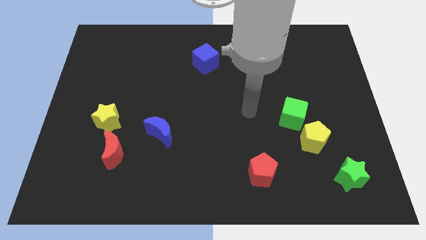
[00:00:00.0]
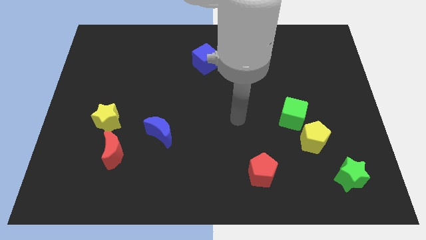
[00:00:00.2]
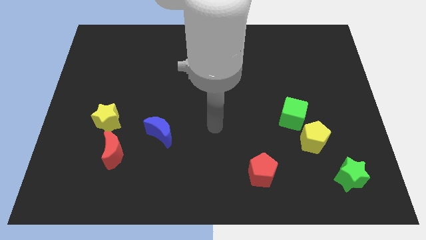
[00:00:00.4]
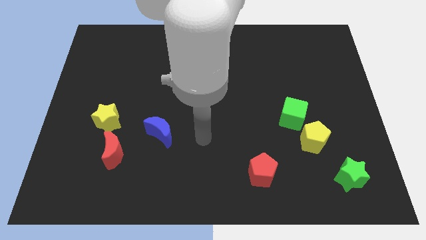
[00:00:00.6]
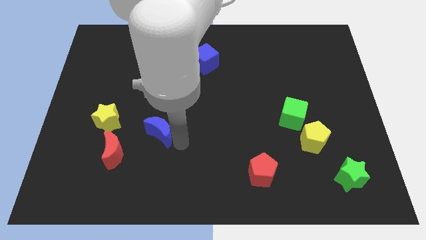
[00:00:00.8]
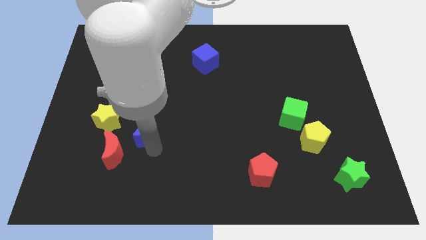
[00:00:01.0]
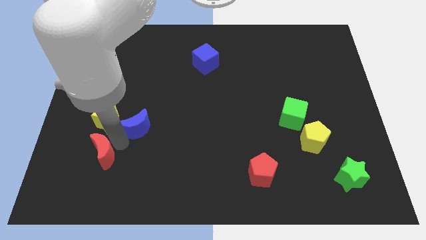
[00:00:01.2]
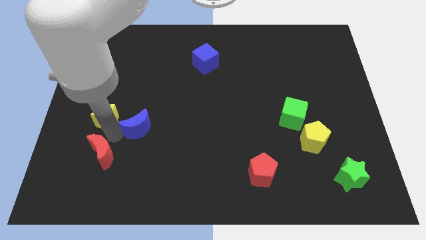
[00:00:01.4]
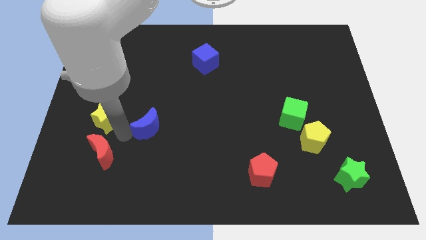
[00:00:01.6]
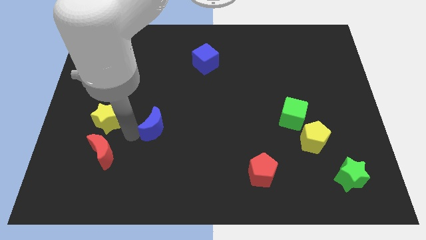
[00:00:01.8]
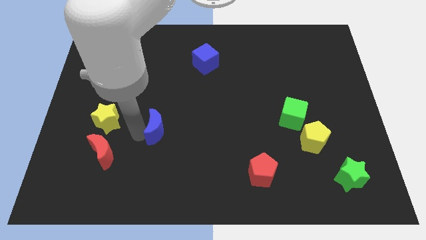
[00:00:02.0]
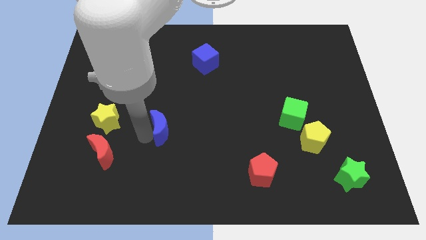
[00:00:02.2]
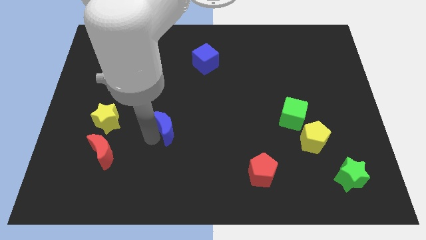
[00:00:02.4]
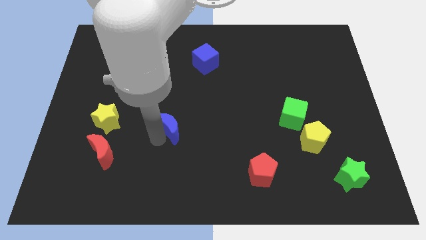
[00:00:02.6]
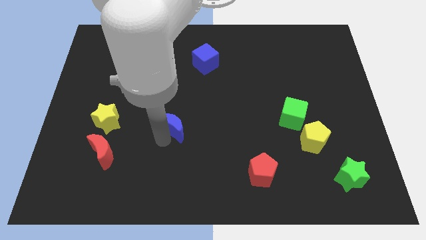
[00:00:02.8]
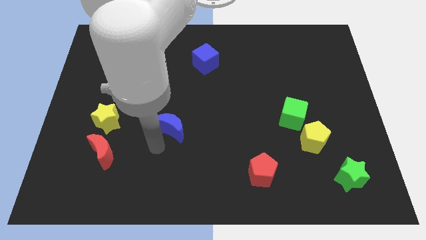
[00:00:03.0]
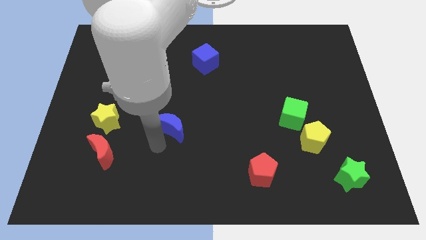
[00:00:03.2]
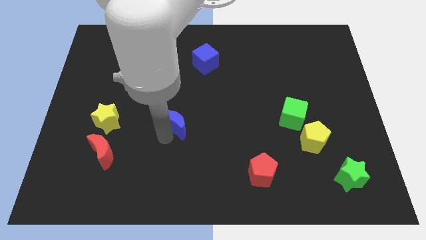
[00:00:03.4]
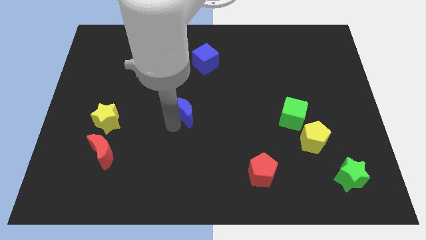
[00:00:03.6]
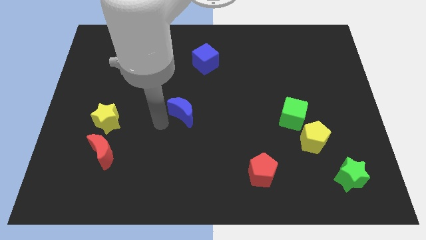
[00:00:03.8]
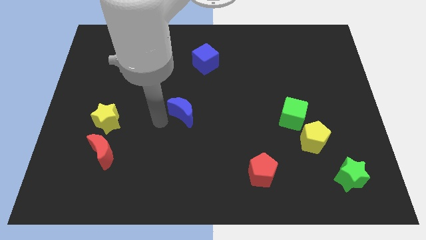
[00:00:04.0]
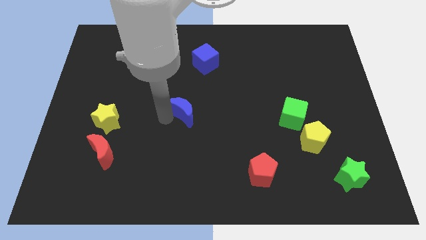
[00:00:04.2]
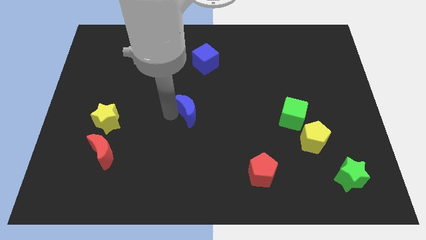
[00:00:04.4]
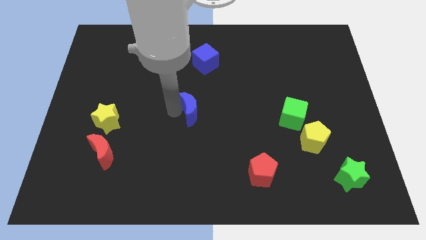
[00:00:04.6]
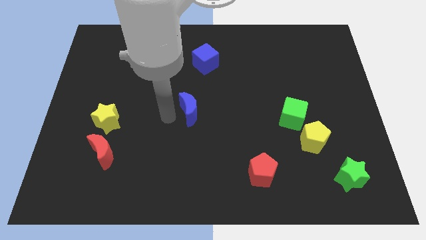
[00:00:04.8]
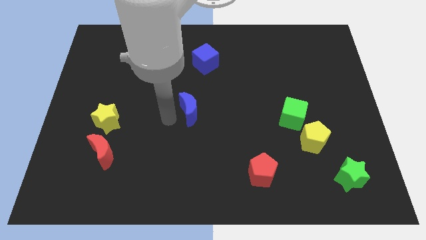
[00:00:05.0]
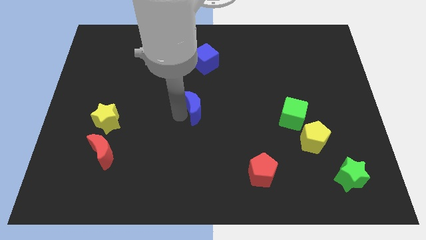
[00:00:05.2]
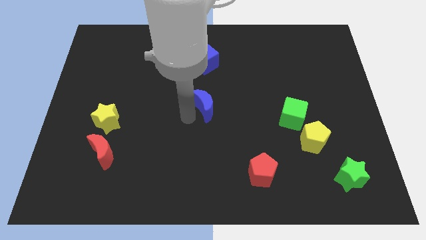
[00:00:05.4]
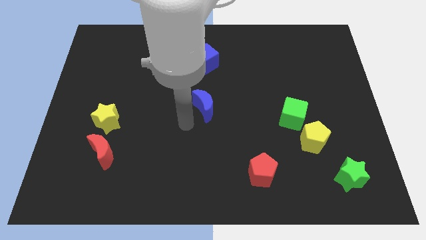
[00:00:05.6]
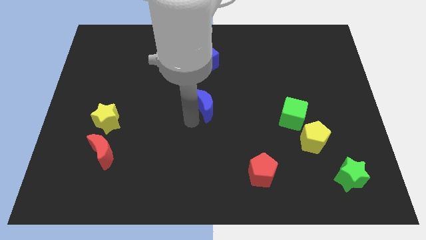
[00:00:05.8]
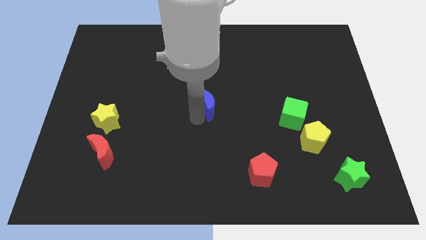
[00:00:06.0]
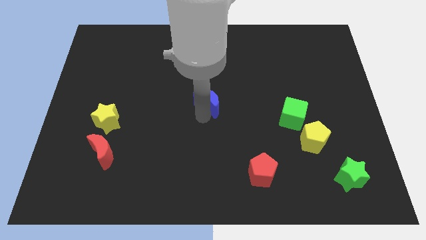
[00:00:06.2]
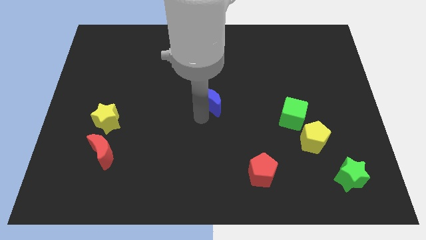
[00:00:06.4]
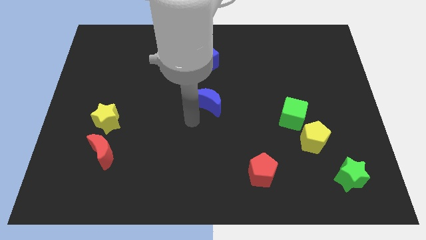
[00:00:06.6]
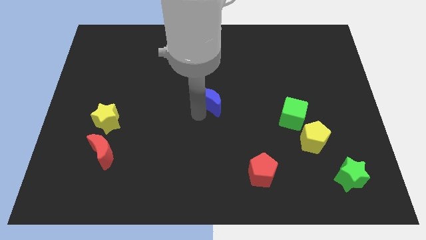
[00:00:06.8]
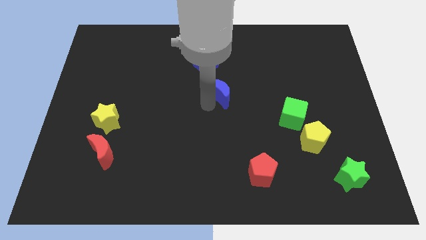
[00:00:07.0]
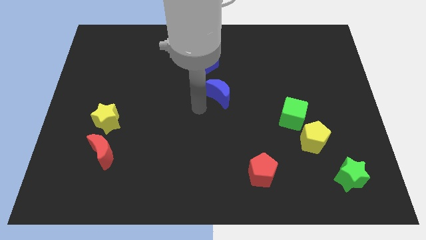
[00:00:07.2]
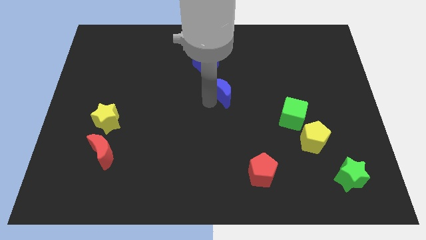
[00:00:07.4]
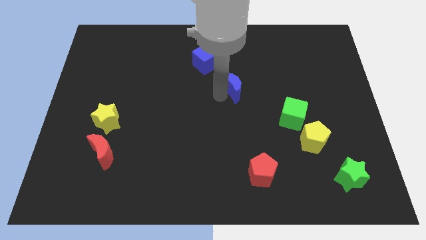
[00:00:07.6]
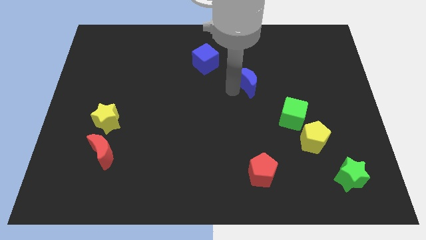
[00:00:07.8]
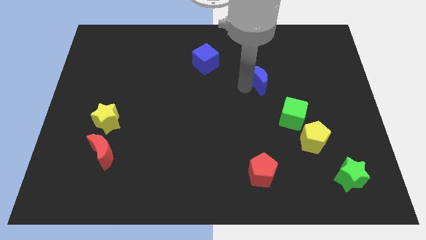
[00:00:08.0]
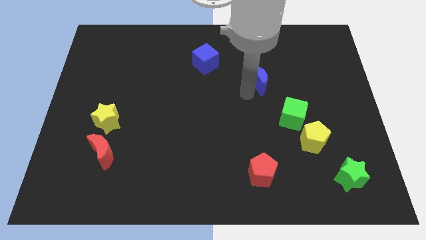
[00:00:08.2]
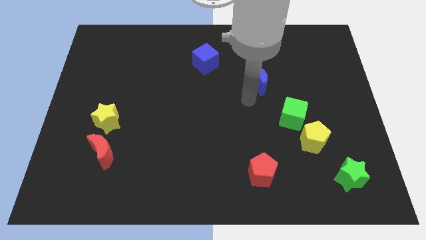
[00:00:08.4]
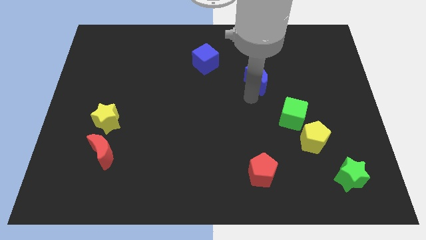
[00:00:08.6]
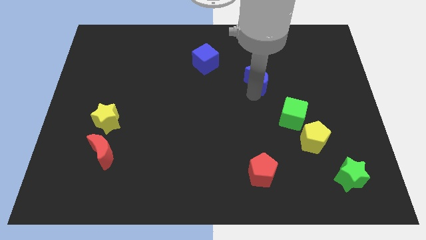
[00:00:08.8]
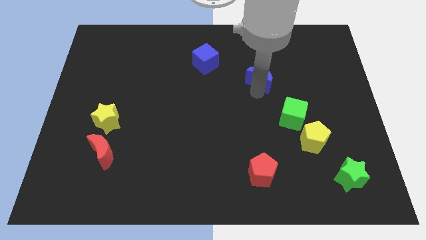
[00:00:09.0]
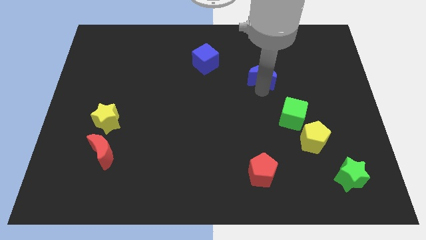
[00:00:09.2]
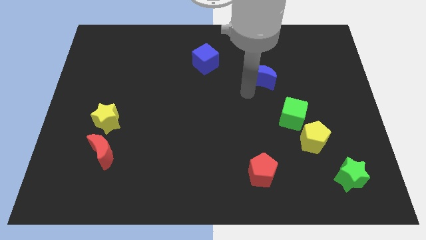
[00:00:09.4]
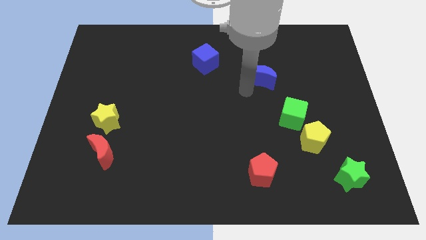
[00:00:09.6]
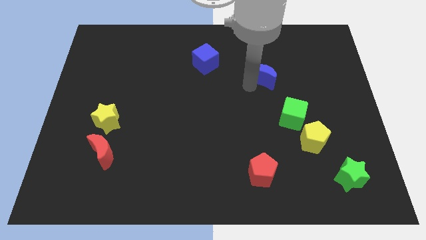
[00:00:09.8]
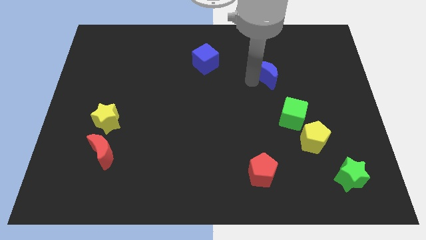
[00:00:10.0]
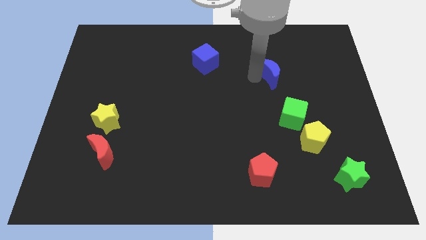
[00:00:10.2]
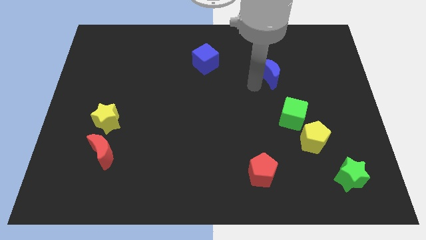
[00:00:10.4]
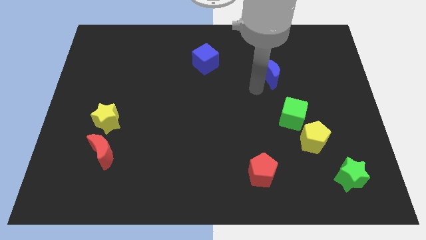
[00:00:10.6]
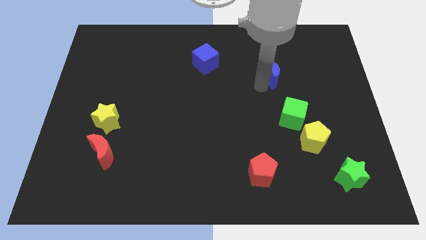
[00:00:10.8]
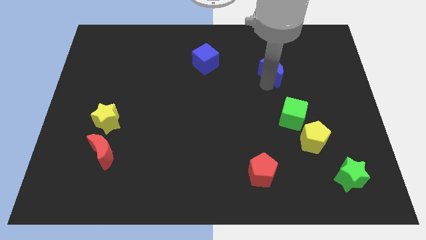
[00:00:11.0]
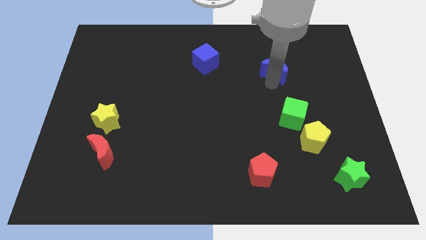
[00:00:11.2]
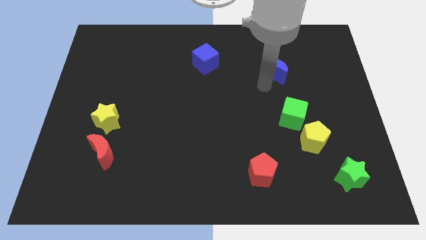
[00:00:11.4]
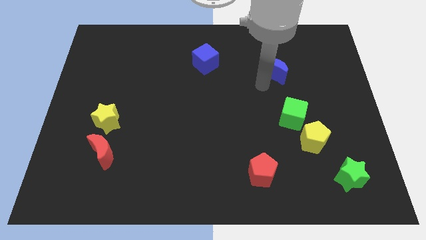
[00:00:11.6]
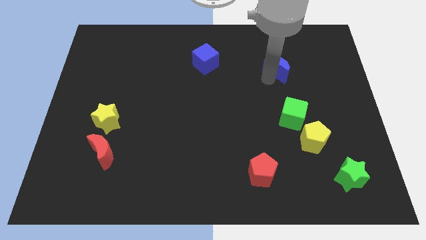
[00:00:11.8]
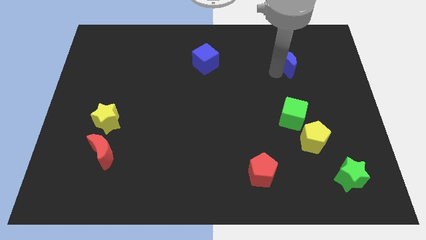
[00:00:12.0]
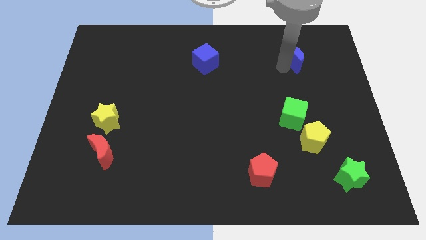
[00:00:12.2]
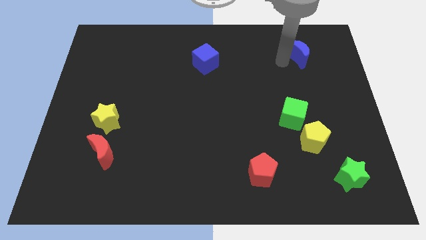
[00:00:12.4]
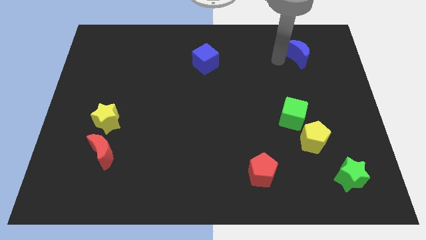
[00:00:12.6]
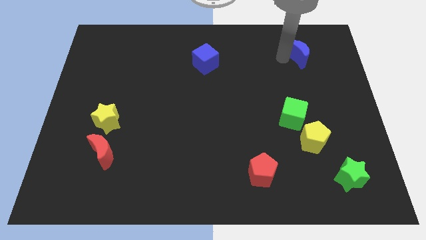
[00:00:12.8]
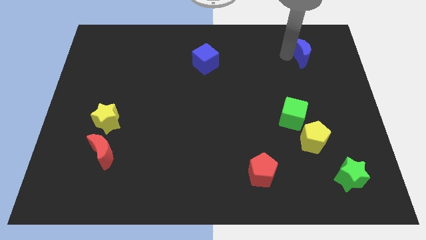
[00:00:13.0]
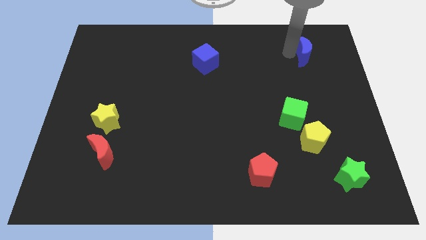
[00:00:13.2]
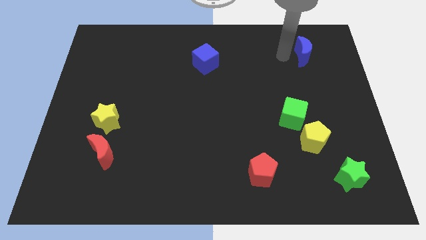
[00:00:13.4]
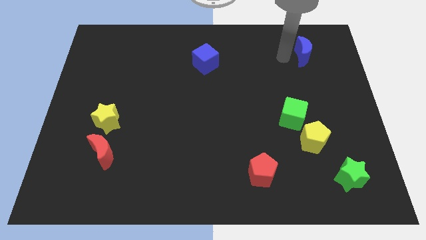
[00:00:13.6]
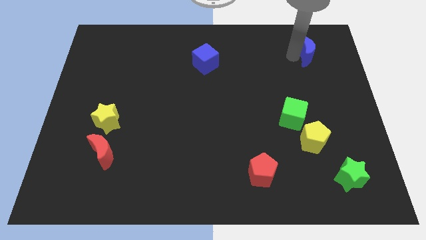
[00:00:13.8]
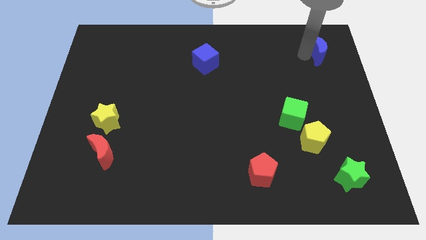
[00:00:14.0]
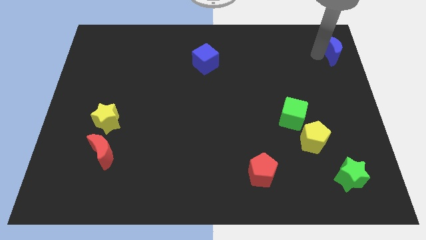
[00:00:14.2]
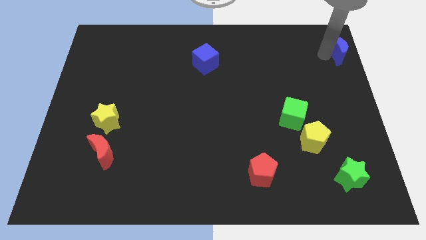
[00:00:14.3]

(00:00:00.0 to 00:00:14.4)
move the blue moon to the top right corner

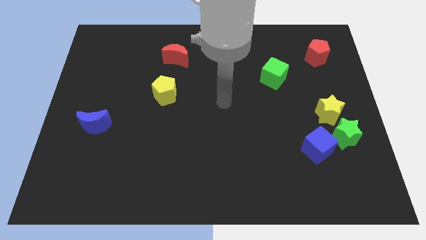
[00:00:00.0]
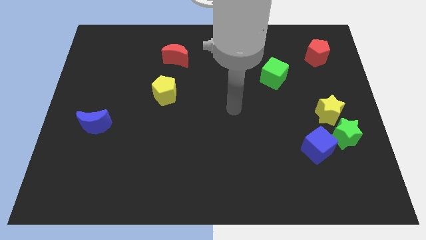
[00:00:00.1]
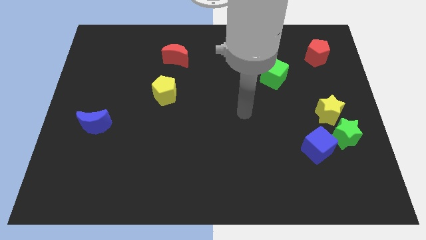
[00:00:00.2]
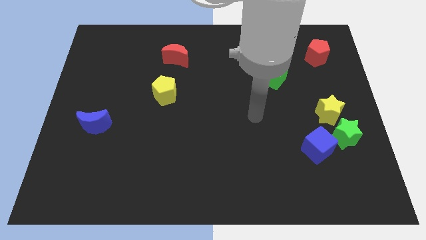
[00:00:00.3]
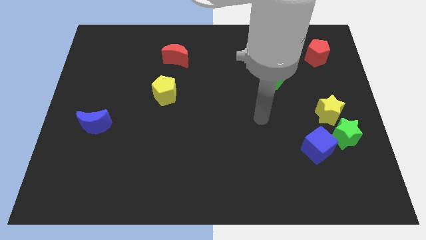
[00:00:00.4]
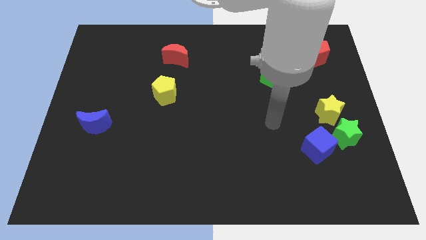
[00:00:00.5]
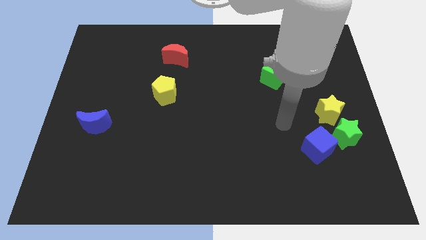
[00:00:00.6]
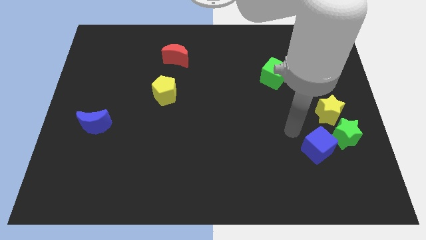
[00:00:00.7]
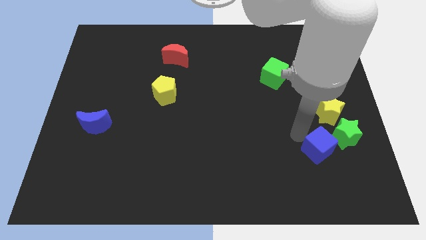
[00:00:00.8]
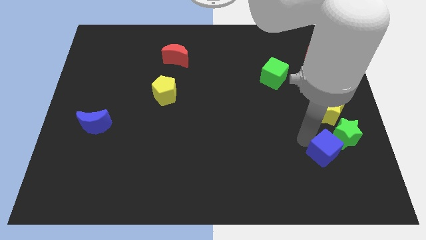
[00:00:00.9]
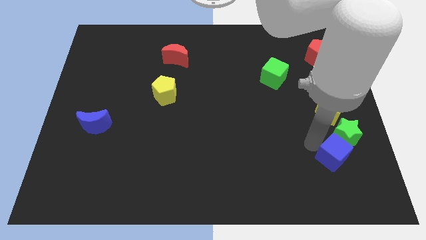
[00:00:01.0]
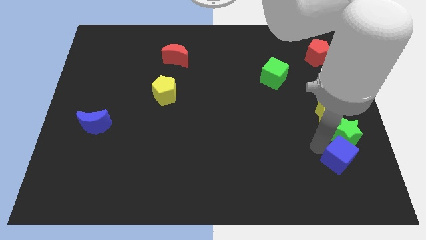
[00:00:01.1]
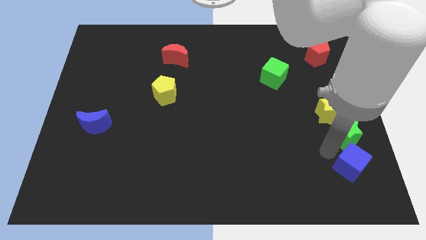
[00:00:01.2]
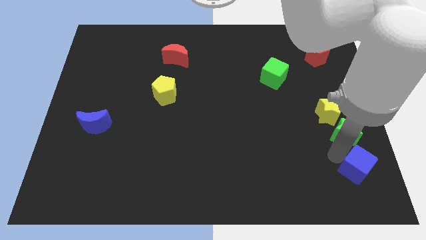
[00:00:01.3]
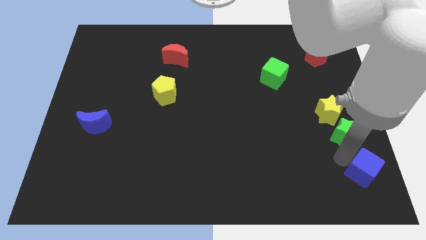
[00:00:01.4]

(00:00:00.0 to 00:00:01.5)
push the blue cube to the bottom right corner
